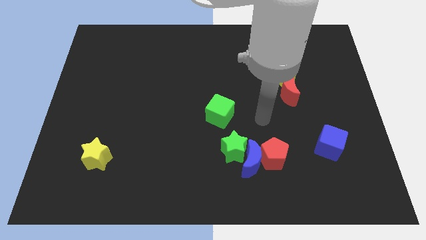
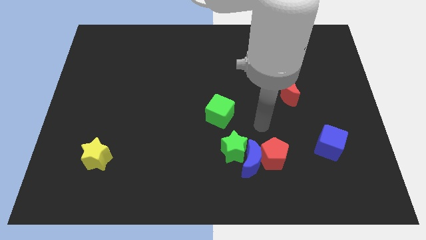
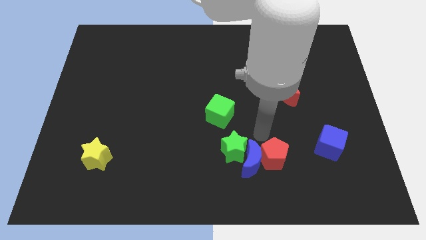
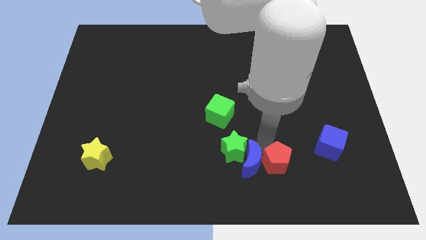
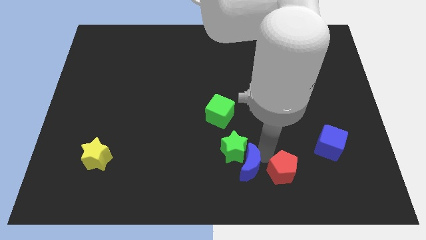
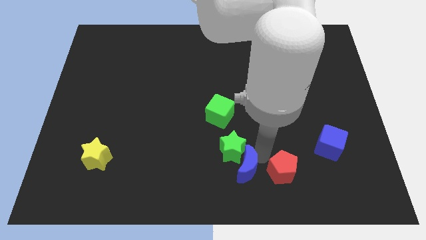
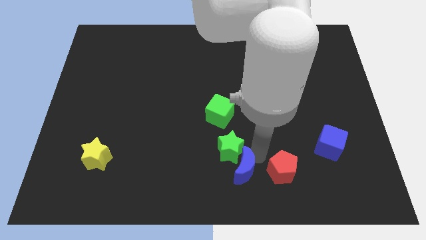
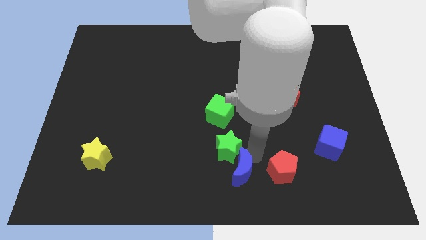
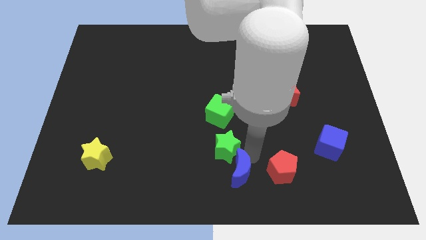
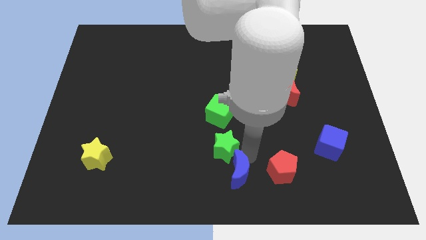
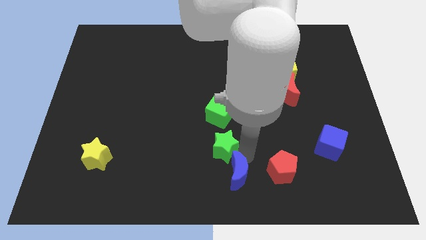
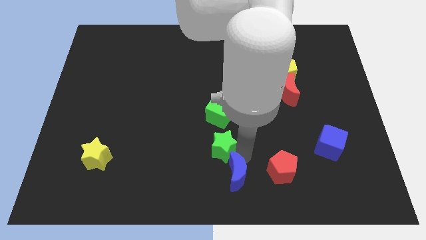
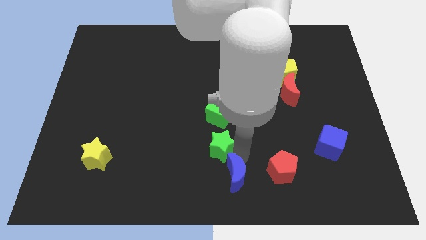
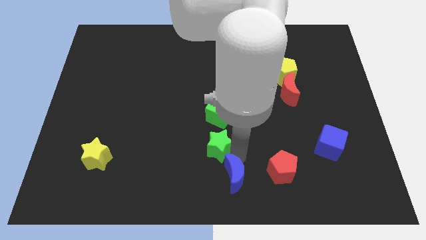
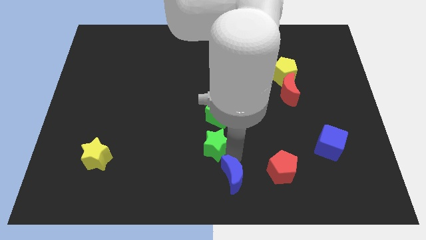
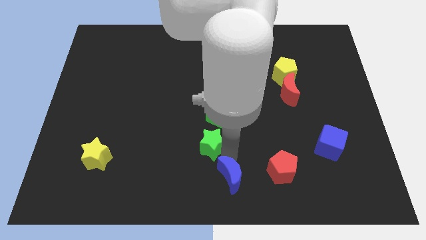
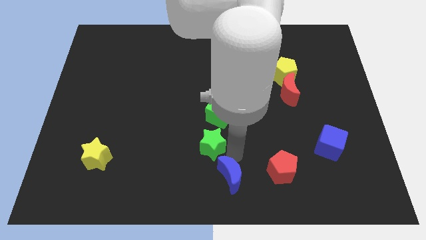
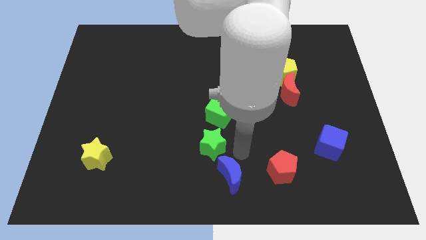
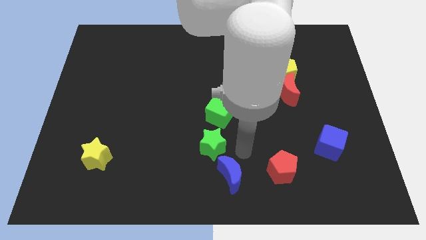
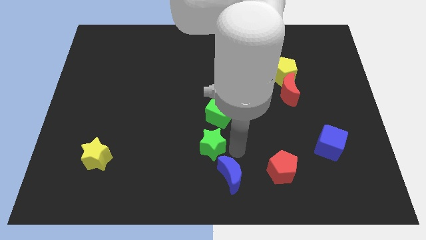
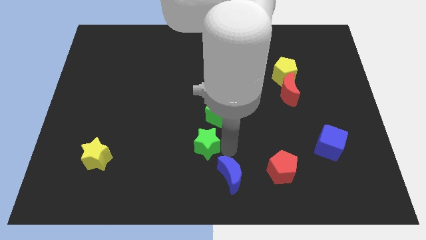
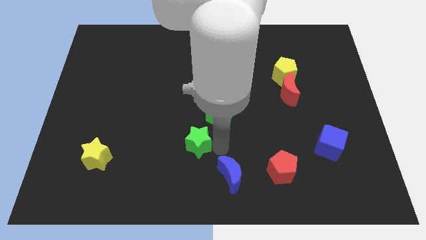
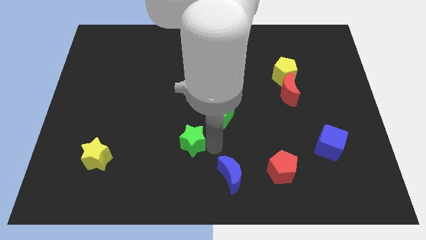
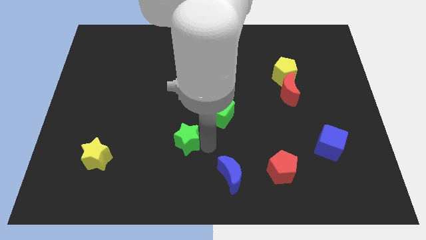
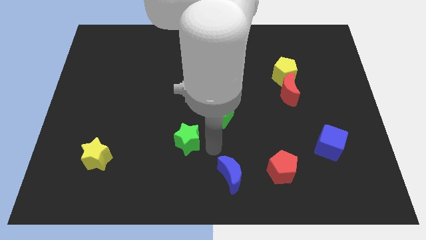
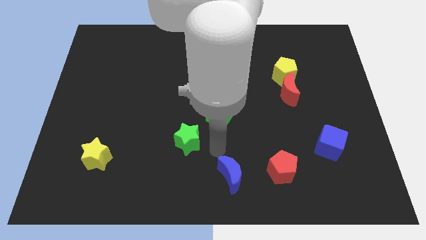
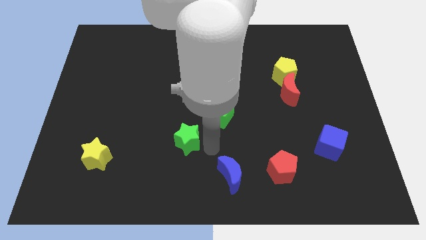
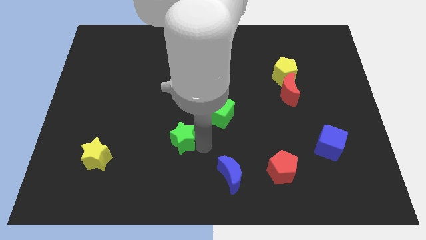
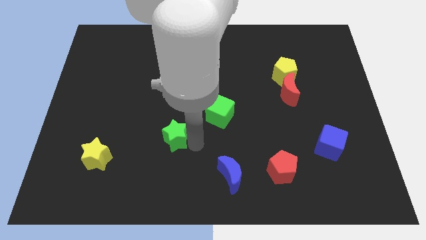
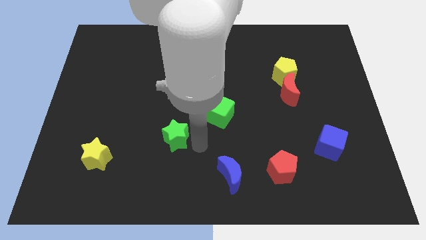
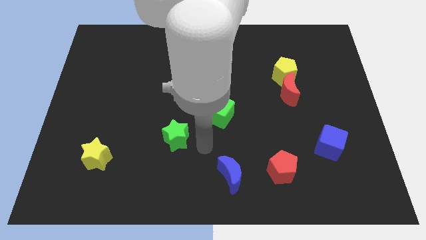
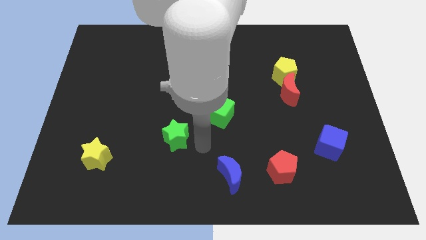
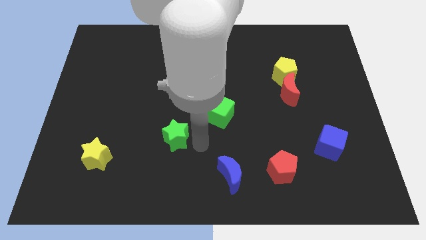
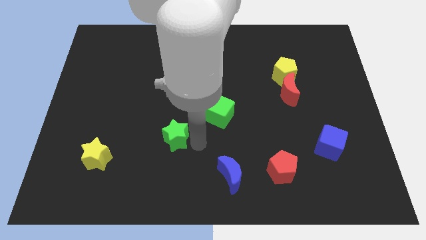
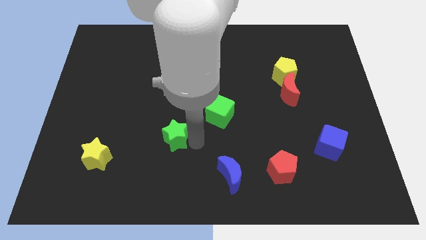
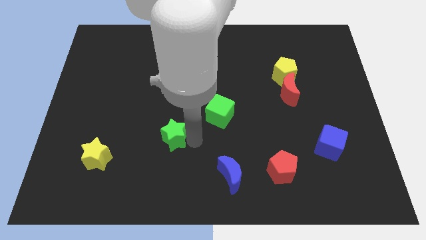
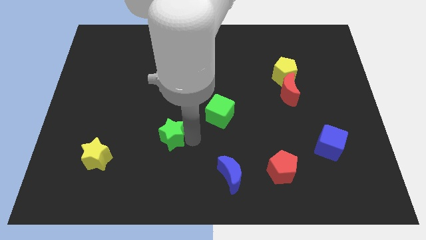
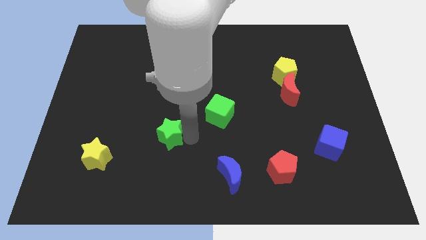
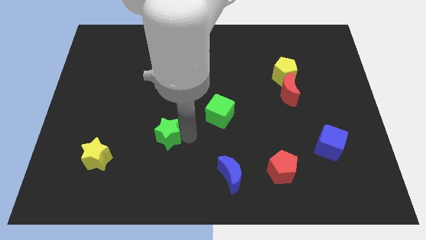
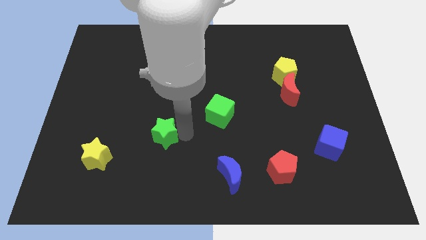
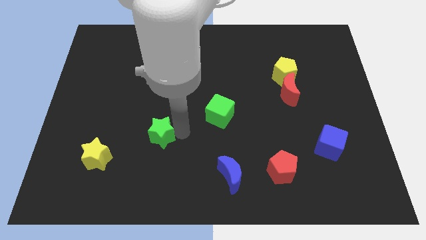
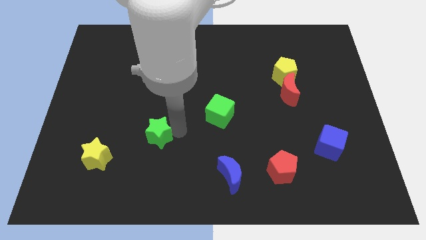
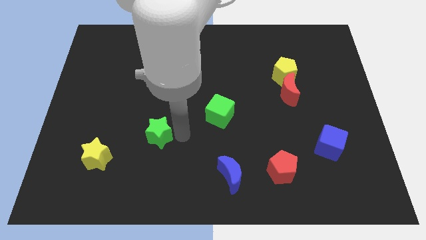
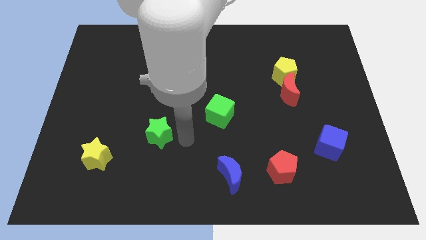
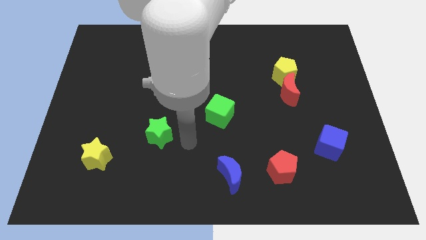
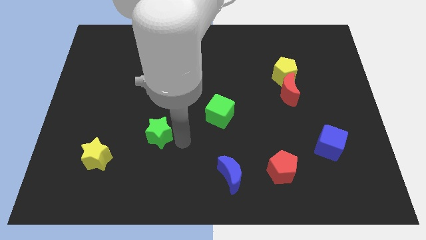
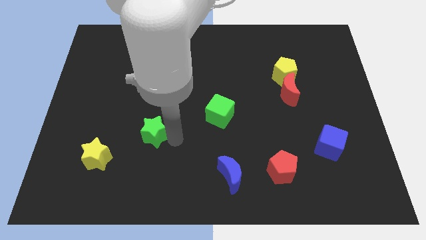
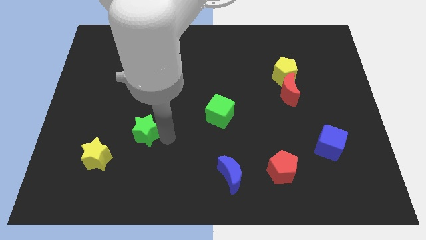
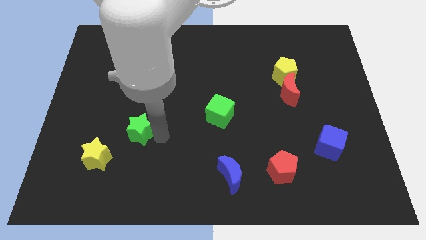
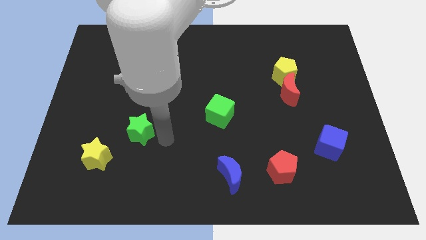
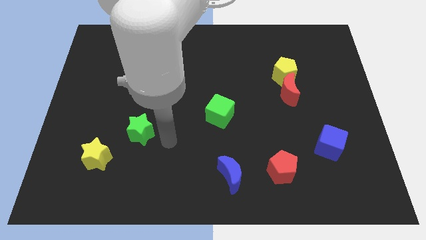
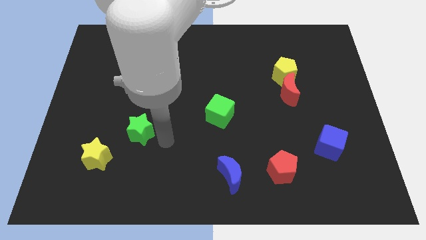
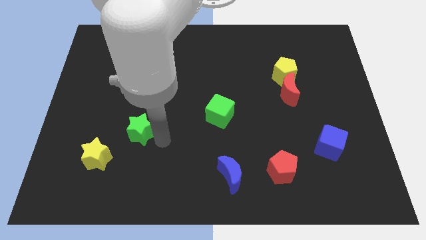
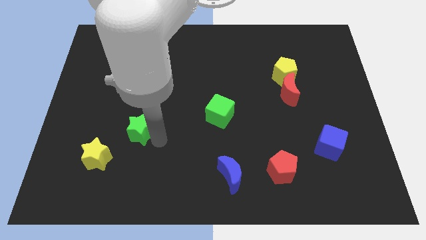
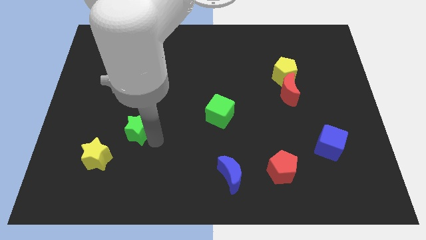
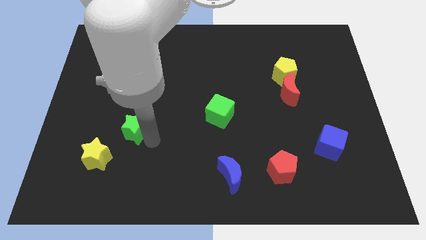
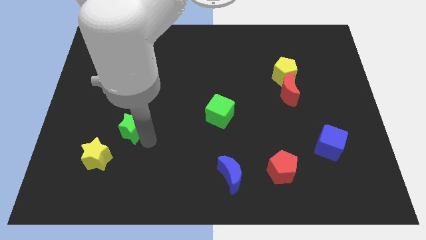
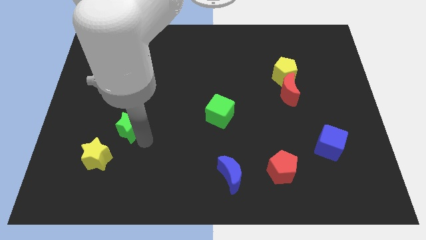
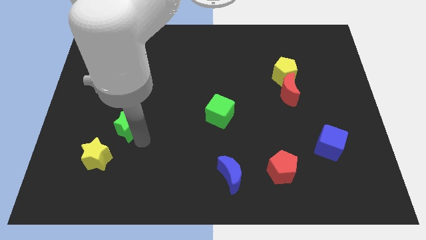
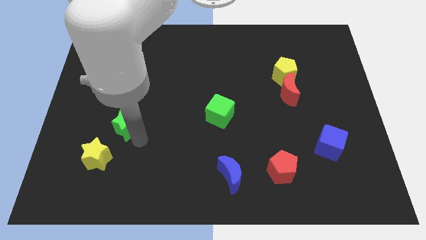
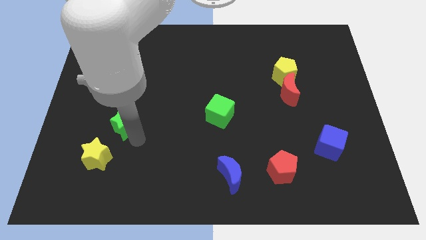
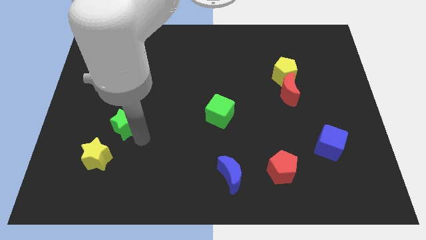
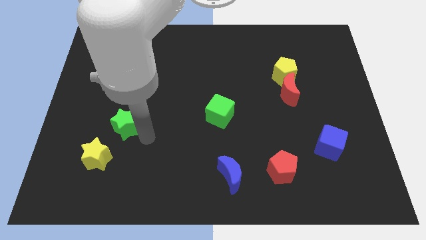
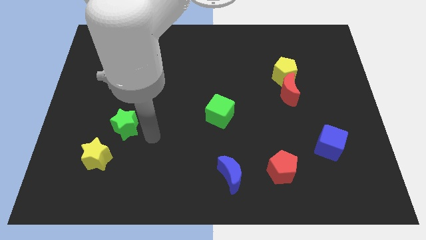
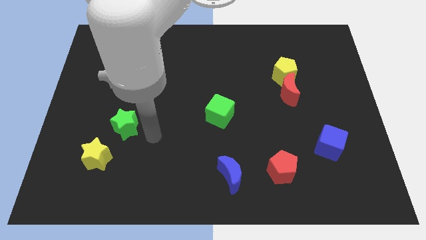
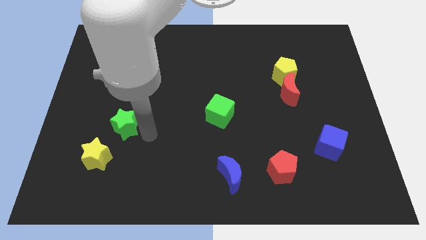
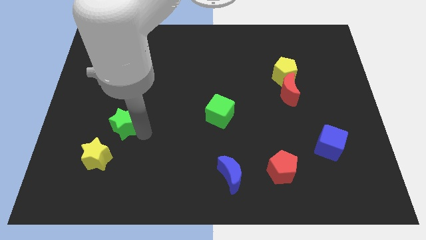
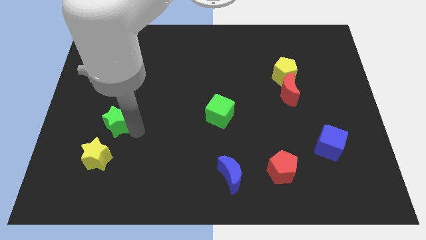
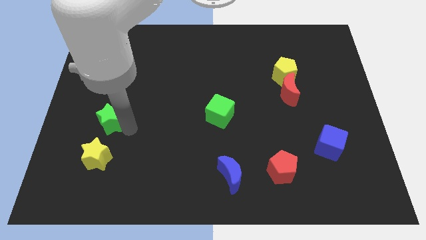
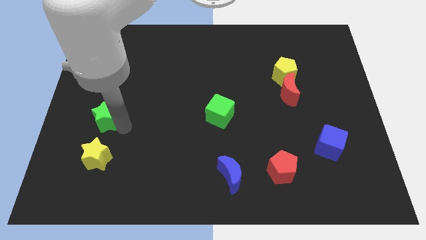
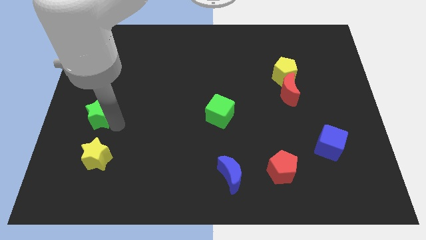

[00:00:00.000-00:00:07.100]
move the green star to the center left

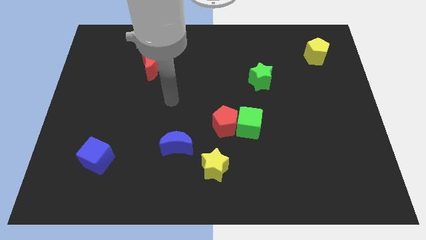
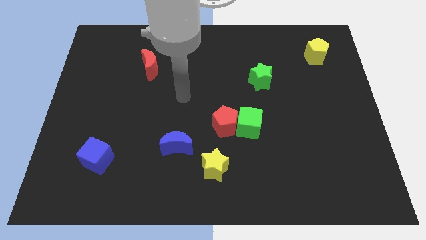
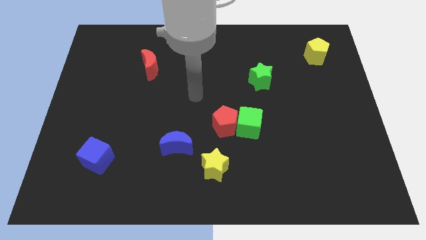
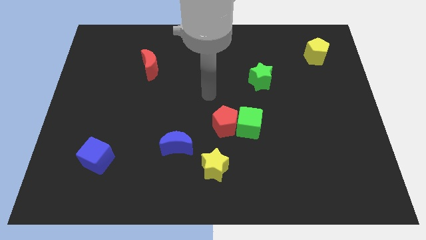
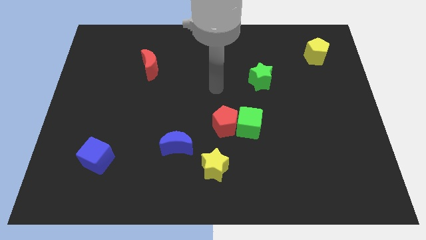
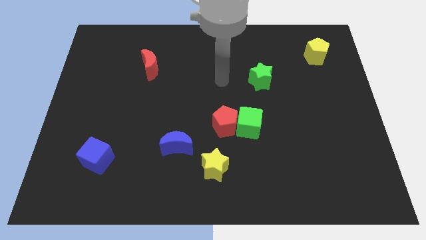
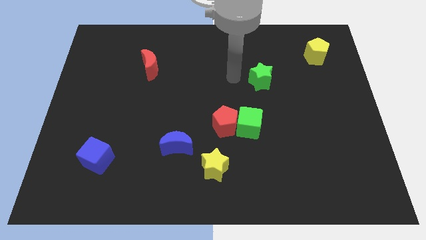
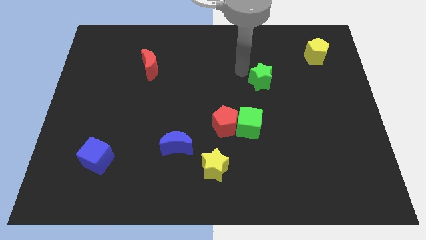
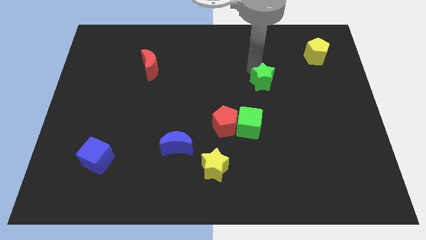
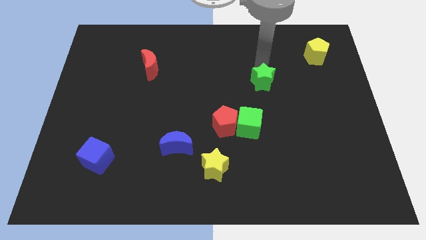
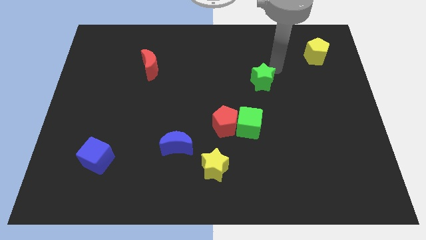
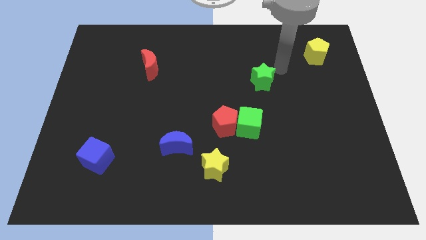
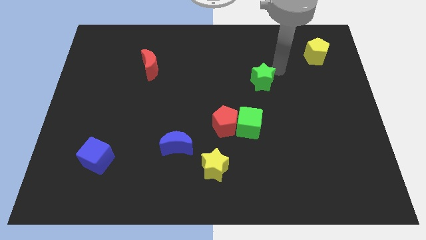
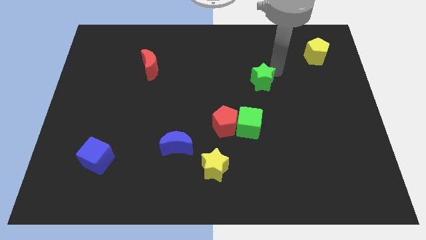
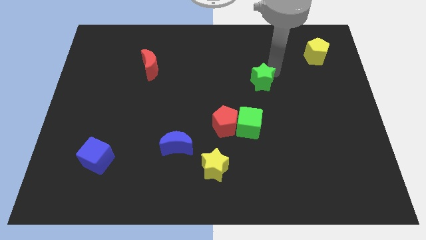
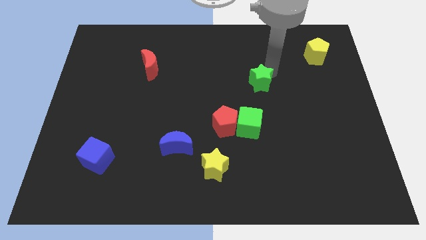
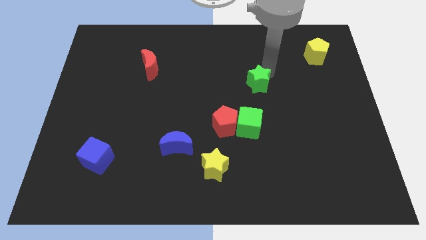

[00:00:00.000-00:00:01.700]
push the green star to the center of the board
